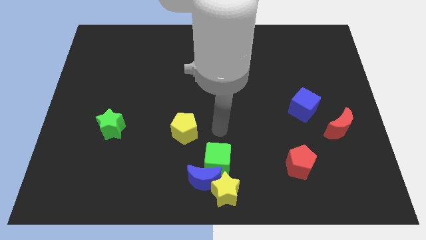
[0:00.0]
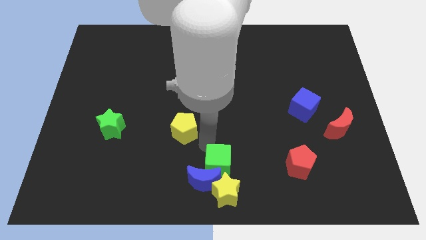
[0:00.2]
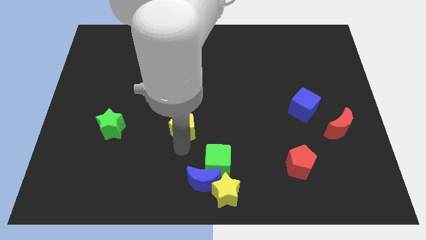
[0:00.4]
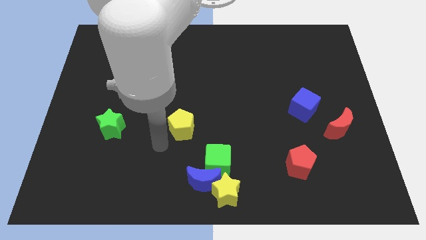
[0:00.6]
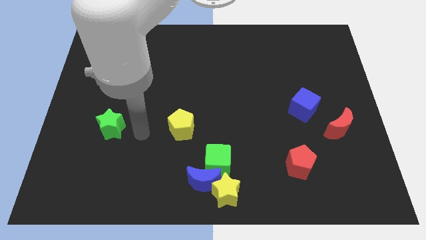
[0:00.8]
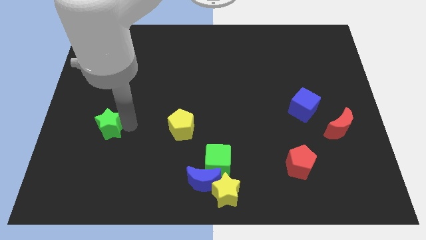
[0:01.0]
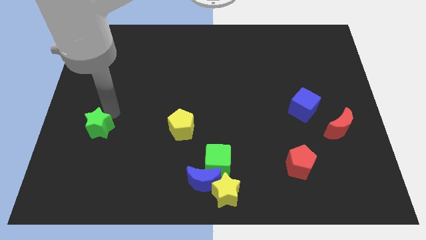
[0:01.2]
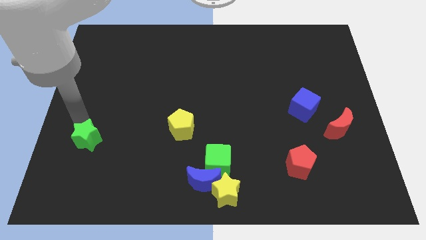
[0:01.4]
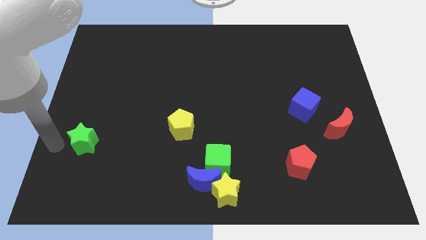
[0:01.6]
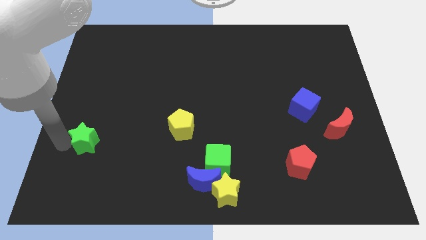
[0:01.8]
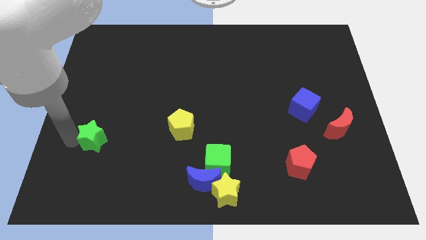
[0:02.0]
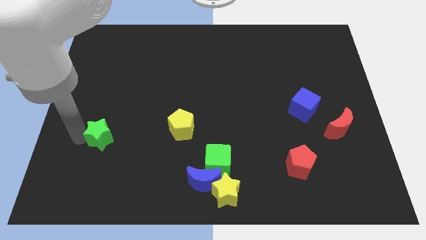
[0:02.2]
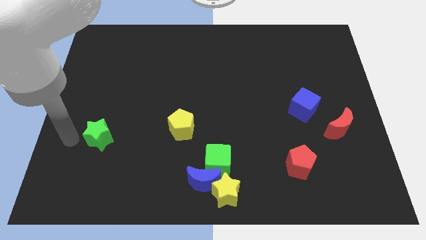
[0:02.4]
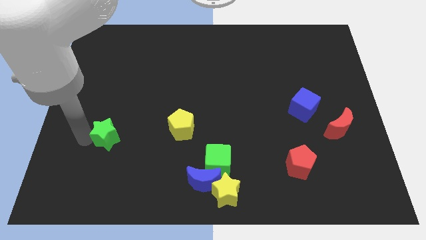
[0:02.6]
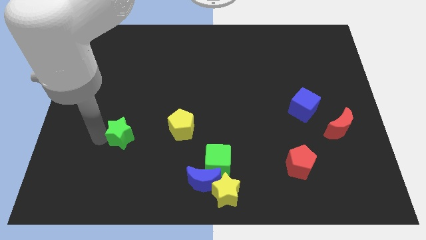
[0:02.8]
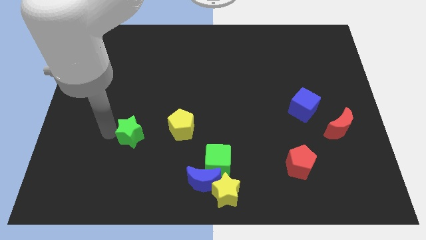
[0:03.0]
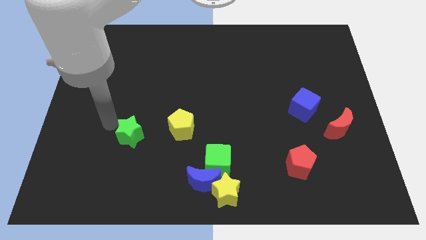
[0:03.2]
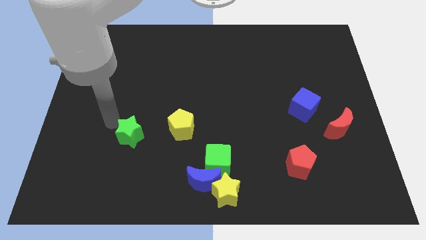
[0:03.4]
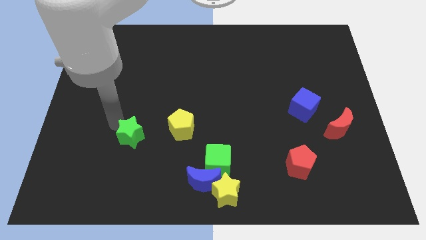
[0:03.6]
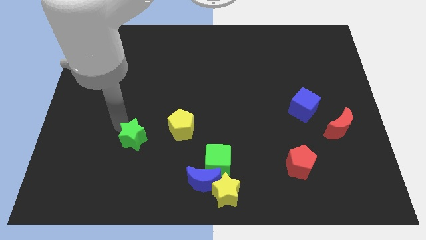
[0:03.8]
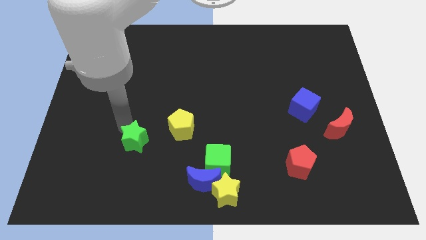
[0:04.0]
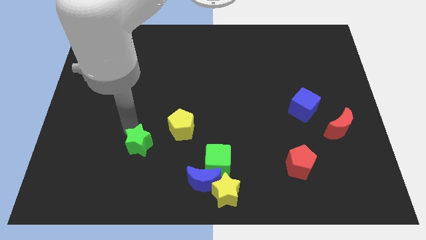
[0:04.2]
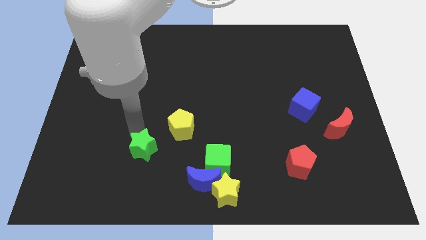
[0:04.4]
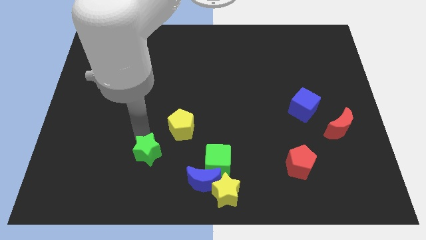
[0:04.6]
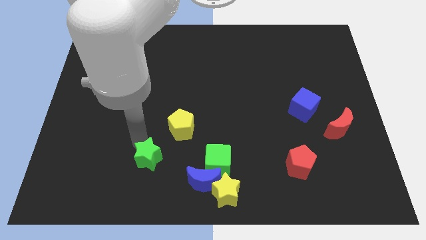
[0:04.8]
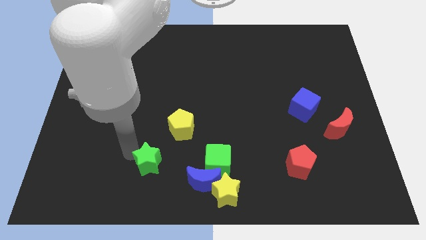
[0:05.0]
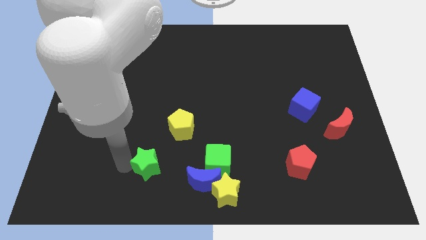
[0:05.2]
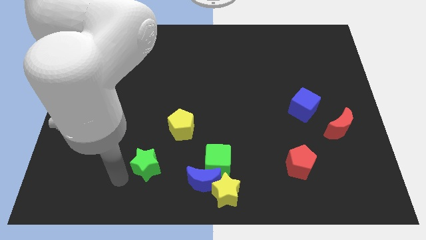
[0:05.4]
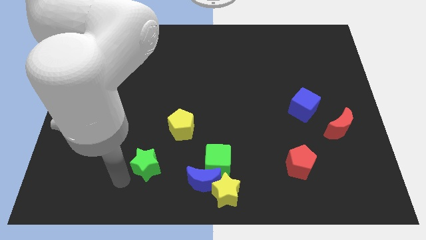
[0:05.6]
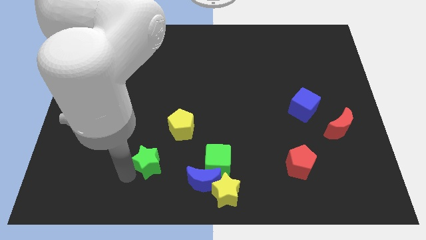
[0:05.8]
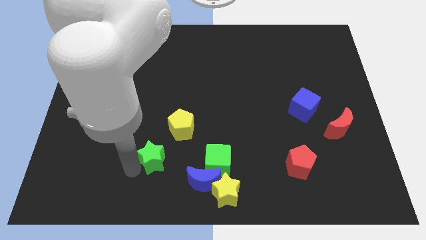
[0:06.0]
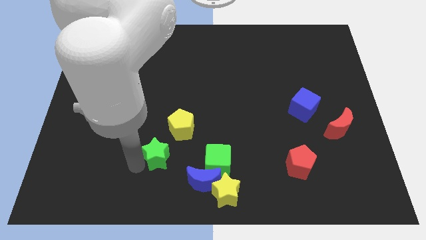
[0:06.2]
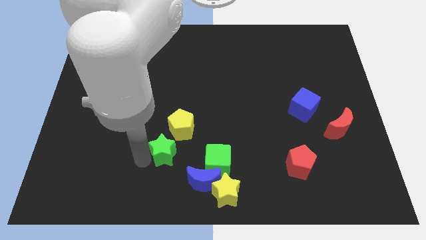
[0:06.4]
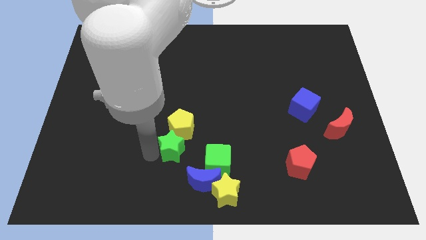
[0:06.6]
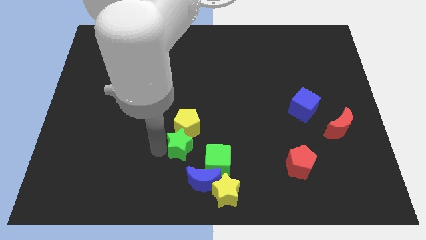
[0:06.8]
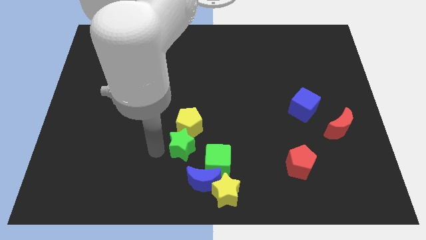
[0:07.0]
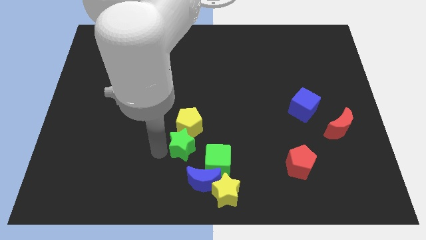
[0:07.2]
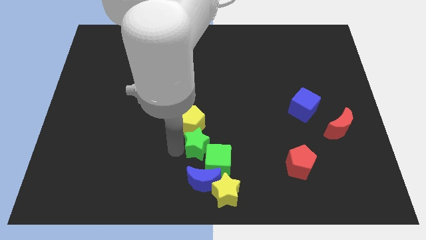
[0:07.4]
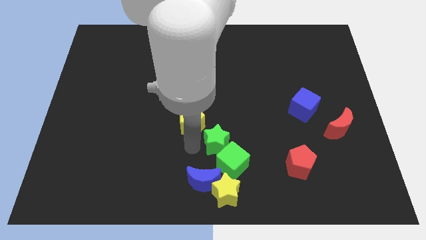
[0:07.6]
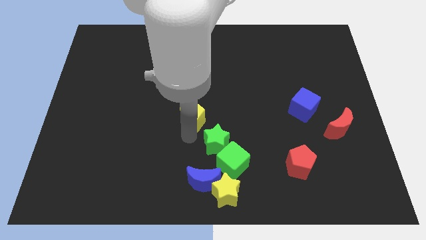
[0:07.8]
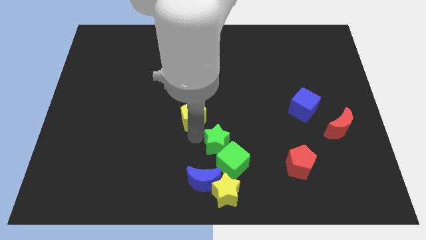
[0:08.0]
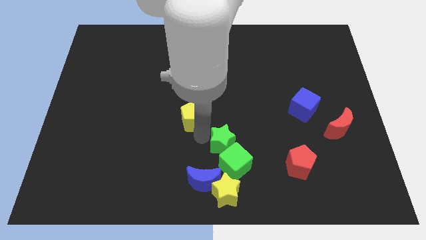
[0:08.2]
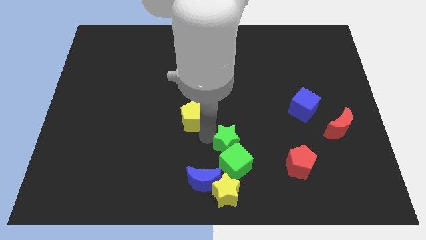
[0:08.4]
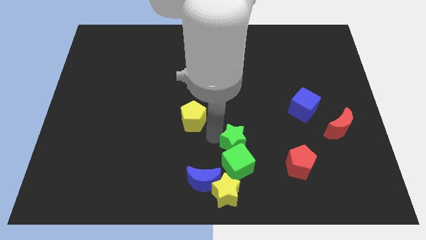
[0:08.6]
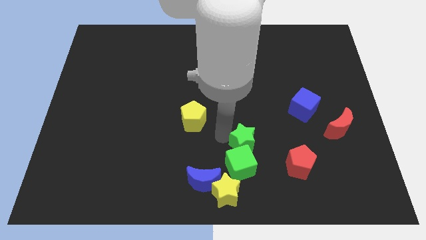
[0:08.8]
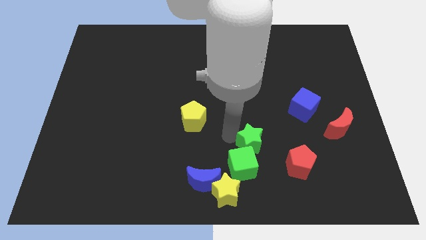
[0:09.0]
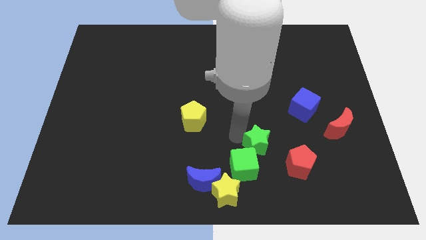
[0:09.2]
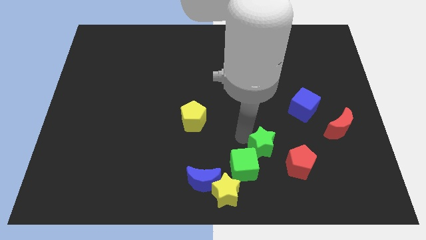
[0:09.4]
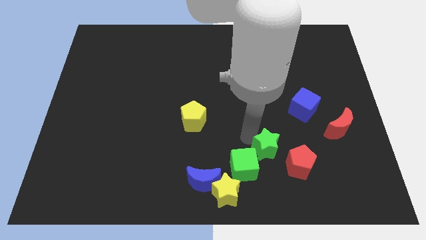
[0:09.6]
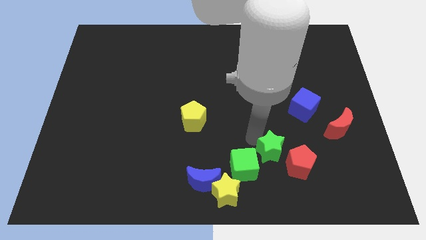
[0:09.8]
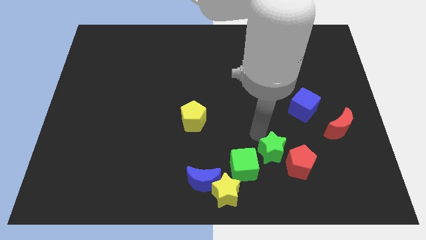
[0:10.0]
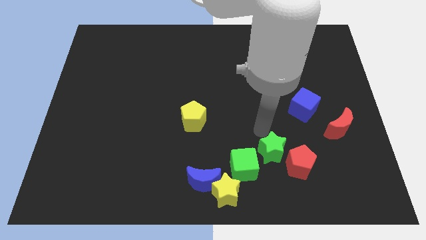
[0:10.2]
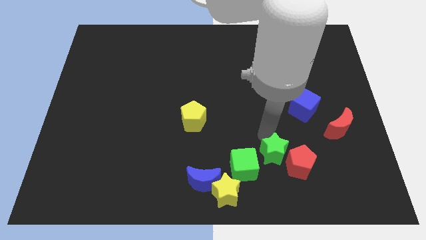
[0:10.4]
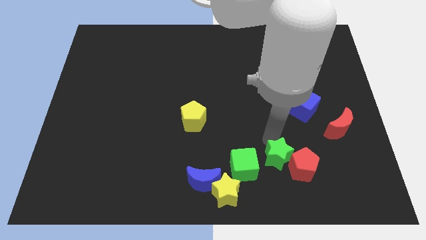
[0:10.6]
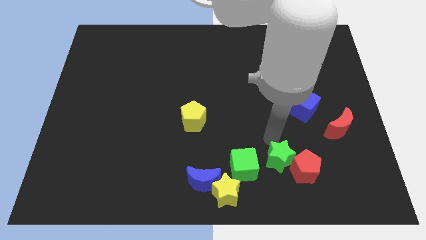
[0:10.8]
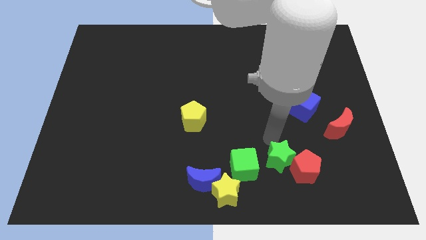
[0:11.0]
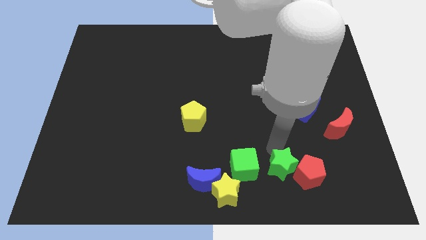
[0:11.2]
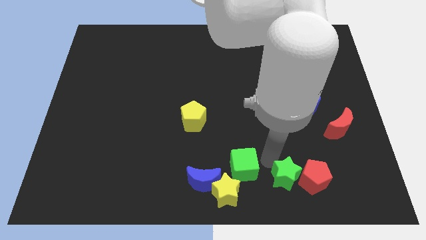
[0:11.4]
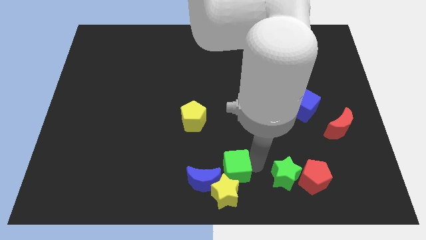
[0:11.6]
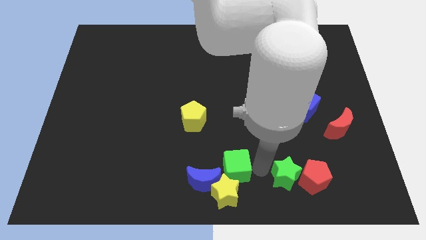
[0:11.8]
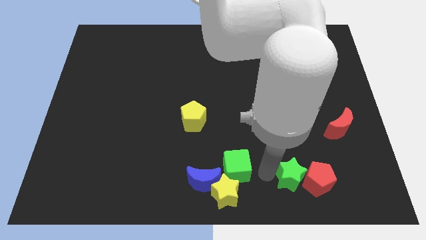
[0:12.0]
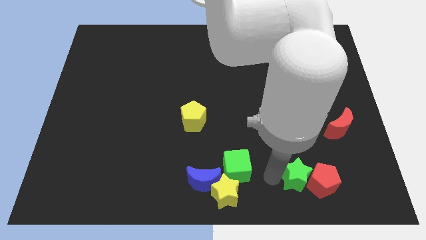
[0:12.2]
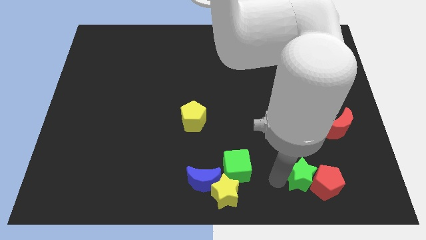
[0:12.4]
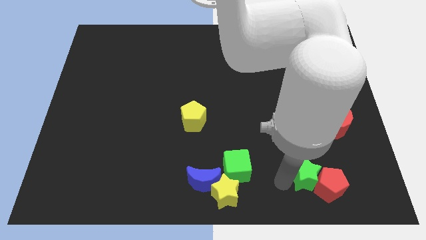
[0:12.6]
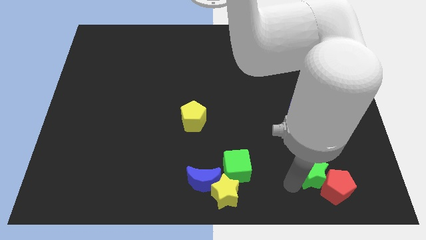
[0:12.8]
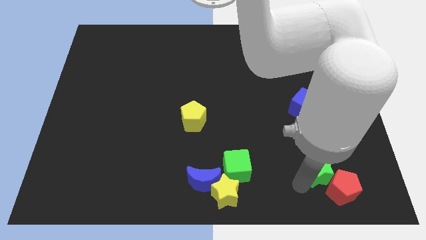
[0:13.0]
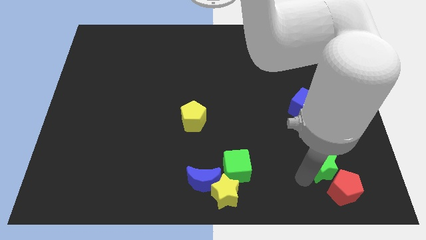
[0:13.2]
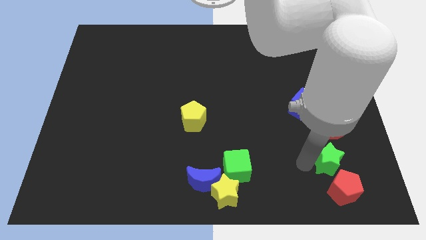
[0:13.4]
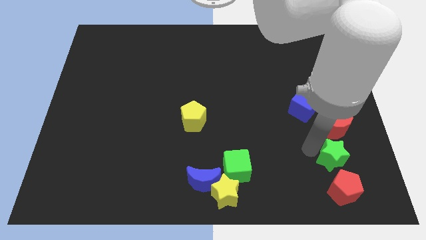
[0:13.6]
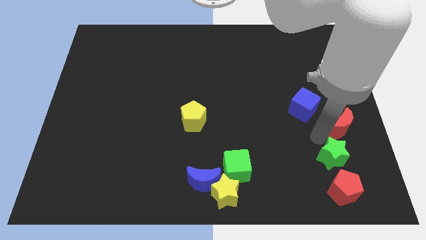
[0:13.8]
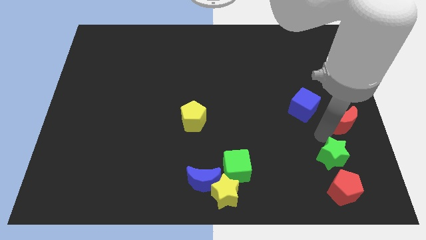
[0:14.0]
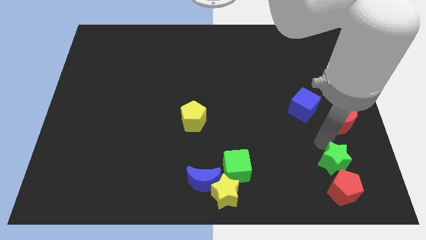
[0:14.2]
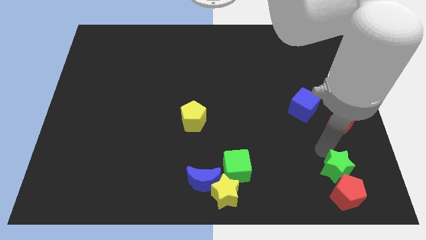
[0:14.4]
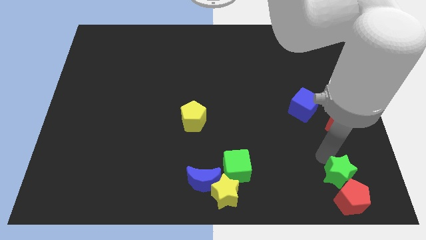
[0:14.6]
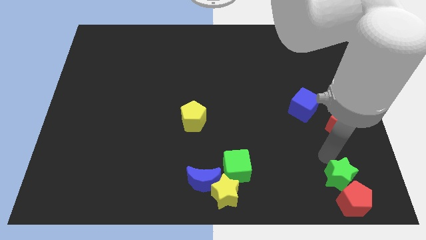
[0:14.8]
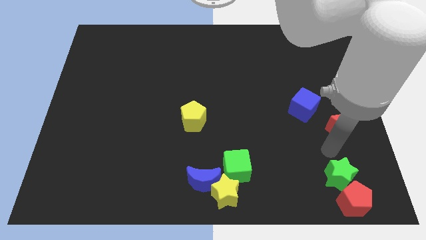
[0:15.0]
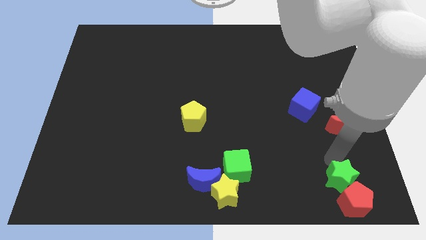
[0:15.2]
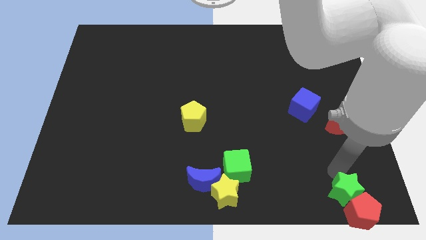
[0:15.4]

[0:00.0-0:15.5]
push the green star to the bottom right corner

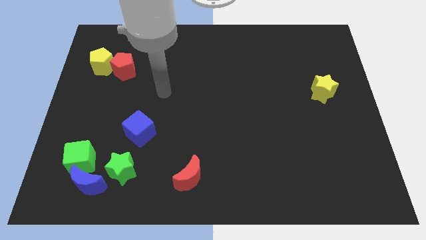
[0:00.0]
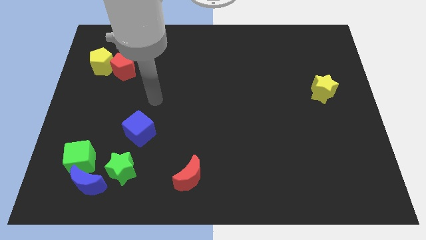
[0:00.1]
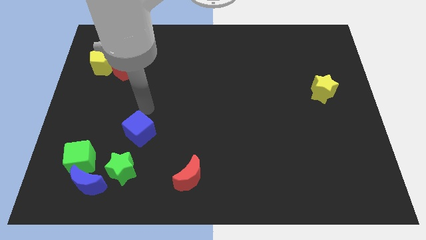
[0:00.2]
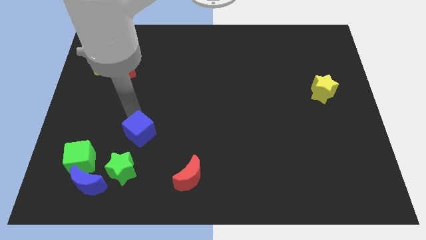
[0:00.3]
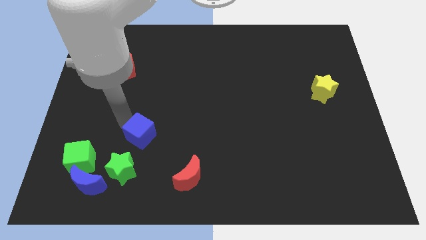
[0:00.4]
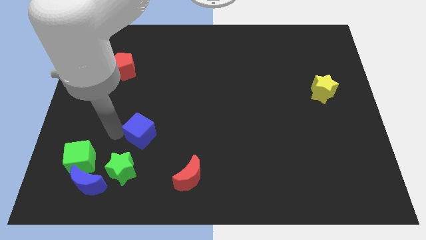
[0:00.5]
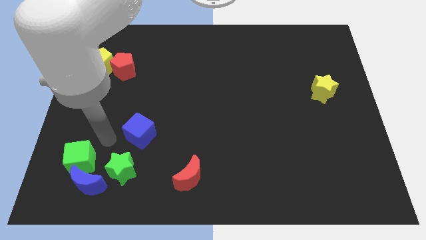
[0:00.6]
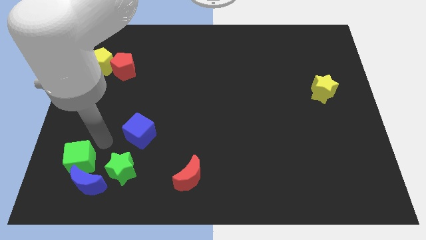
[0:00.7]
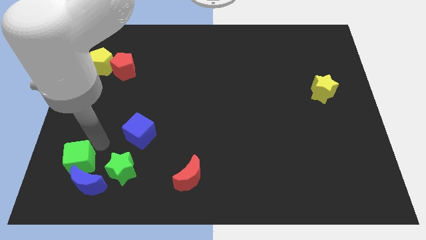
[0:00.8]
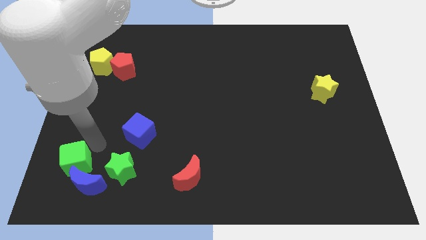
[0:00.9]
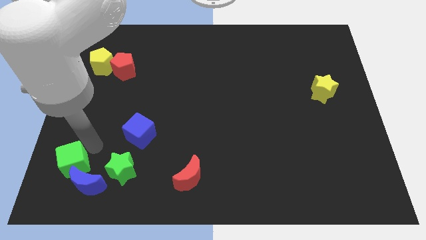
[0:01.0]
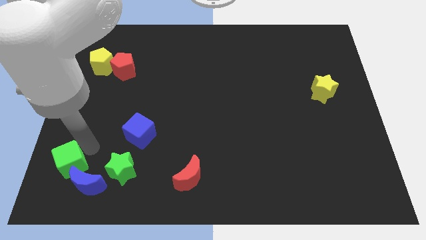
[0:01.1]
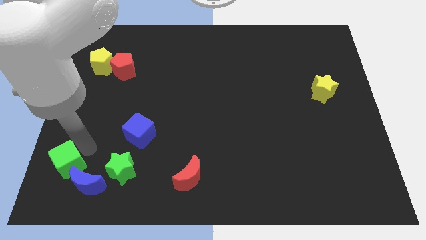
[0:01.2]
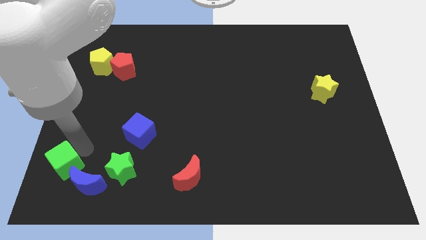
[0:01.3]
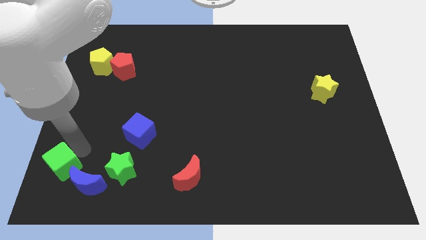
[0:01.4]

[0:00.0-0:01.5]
move the green cube to the bottom left of the board
